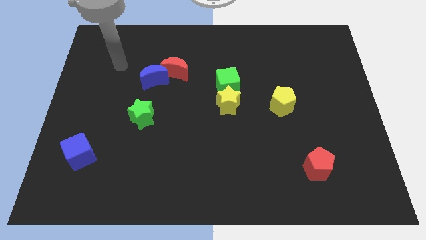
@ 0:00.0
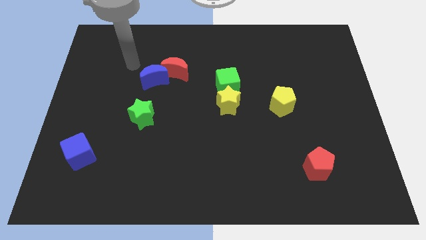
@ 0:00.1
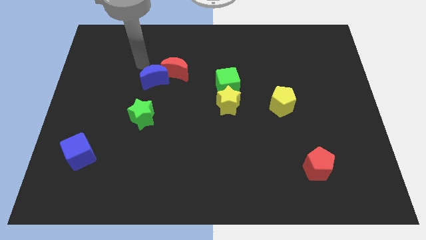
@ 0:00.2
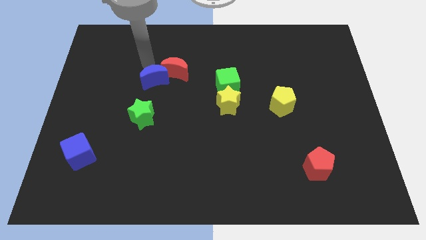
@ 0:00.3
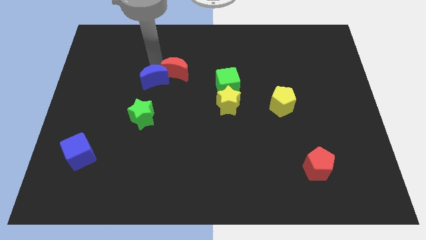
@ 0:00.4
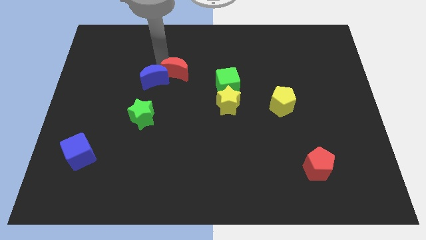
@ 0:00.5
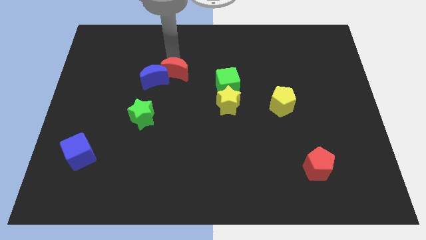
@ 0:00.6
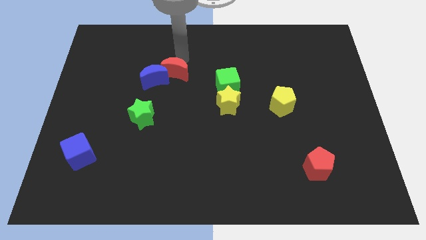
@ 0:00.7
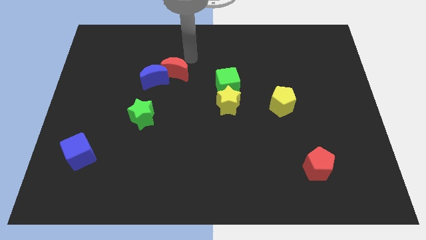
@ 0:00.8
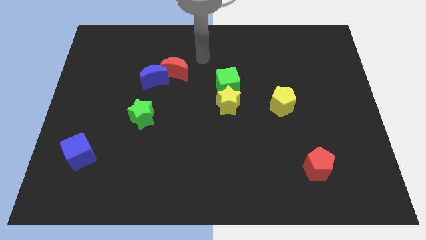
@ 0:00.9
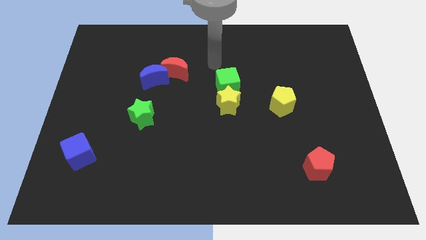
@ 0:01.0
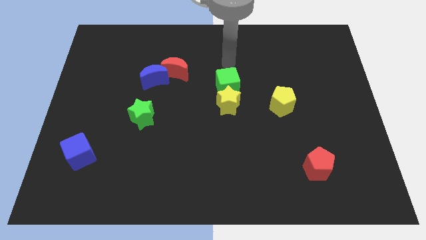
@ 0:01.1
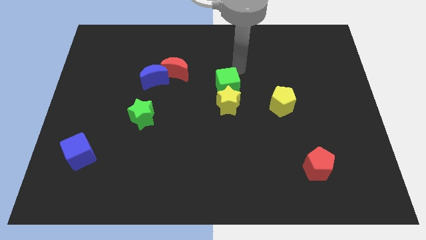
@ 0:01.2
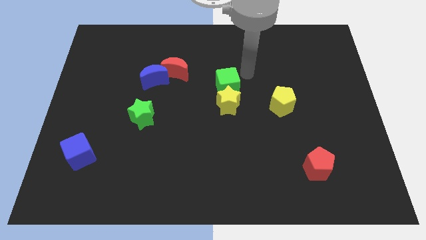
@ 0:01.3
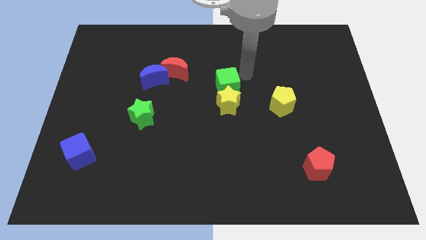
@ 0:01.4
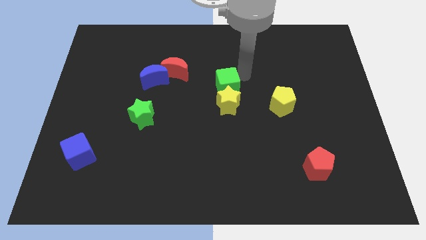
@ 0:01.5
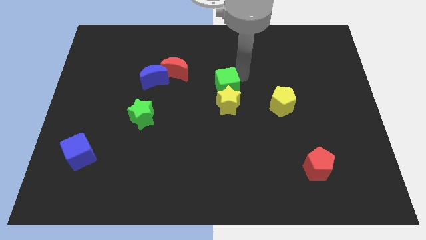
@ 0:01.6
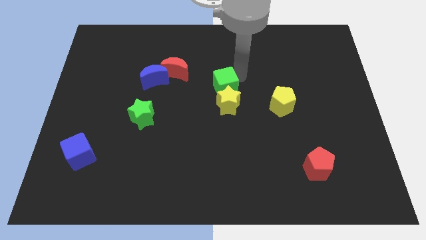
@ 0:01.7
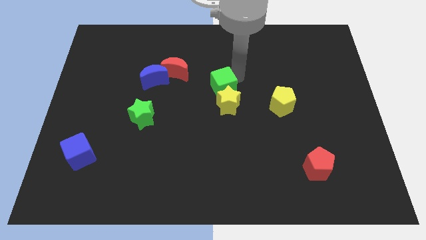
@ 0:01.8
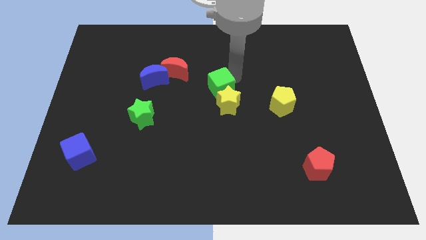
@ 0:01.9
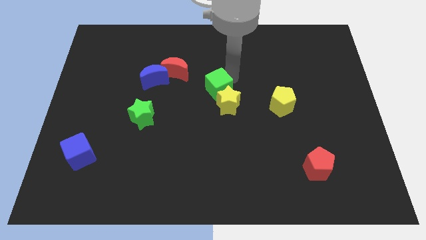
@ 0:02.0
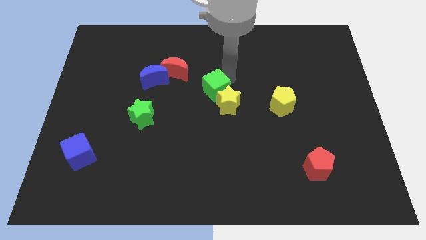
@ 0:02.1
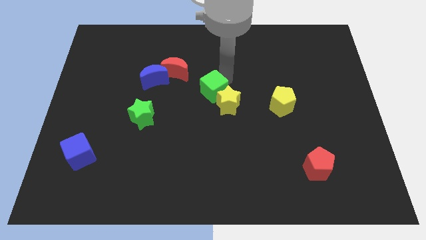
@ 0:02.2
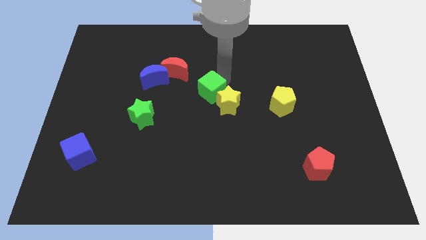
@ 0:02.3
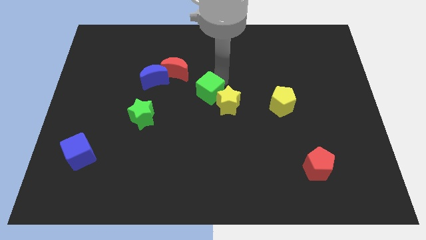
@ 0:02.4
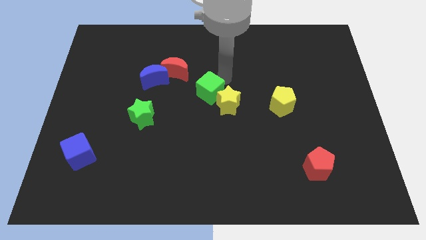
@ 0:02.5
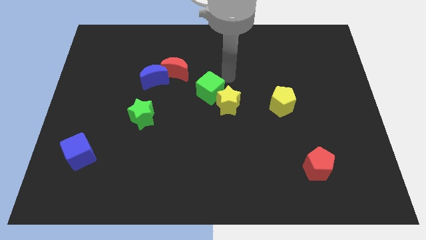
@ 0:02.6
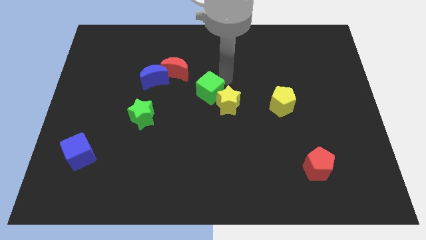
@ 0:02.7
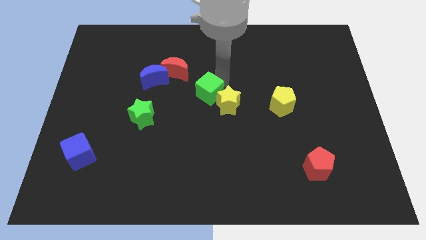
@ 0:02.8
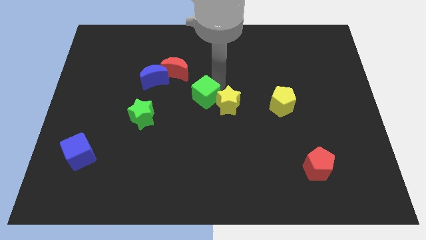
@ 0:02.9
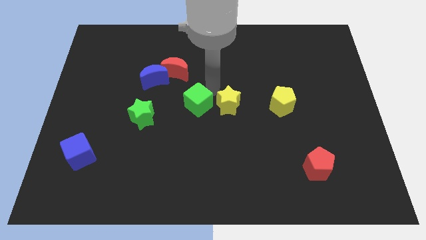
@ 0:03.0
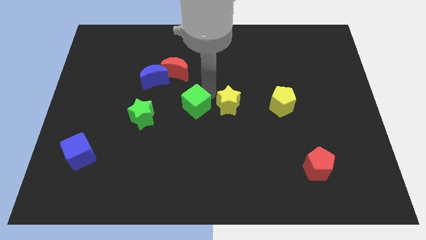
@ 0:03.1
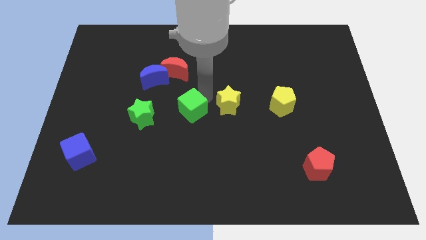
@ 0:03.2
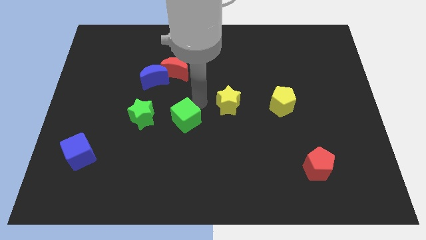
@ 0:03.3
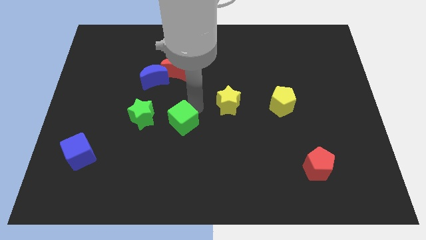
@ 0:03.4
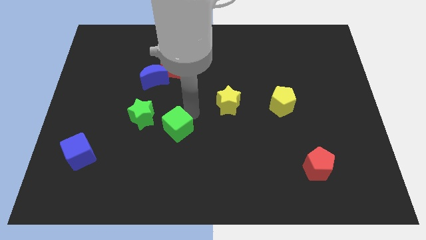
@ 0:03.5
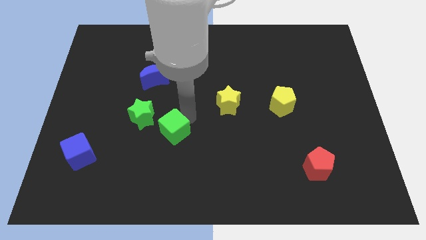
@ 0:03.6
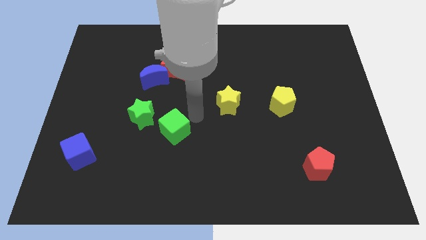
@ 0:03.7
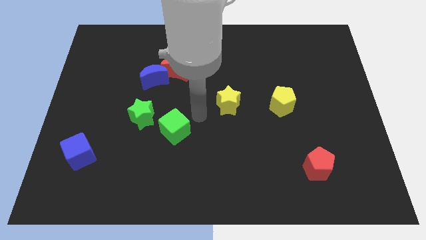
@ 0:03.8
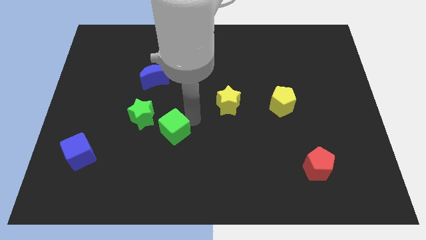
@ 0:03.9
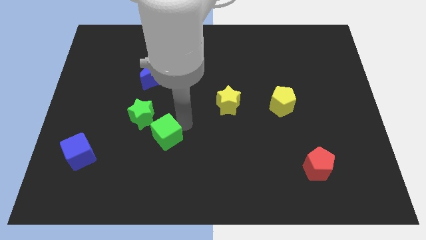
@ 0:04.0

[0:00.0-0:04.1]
push the green cube down and then left

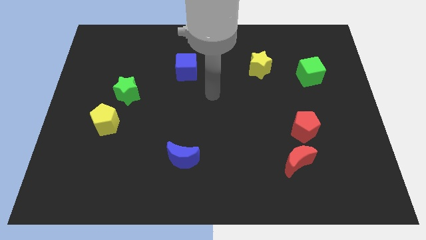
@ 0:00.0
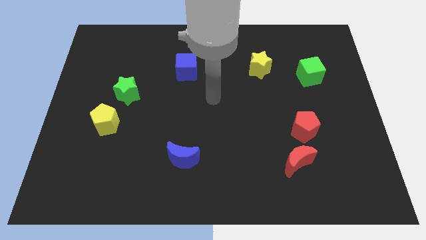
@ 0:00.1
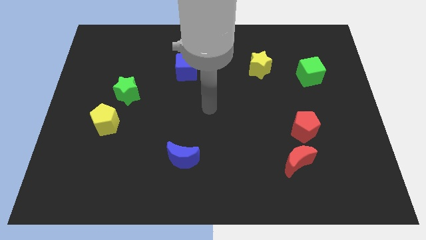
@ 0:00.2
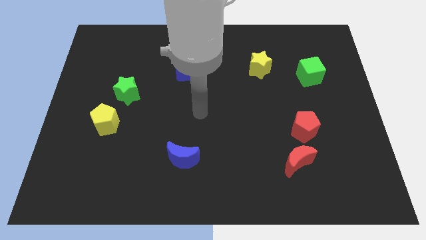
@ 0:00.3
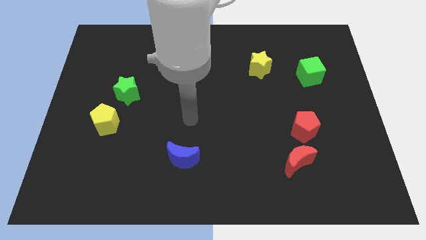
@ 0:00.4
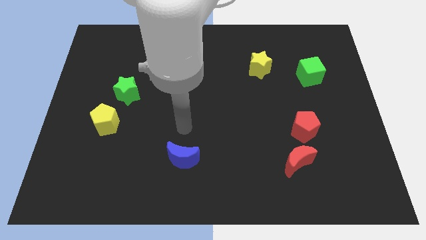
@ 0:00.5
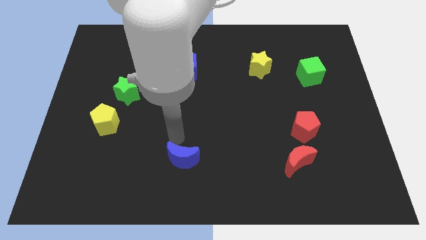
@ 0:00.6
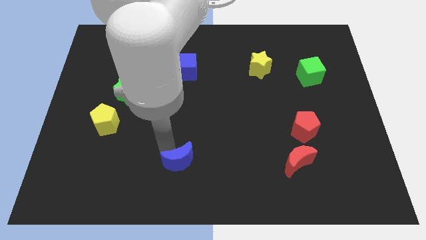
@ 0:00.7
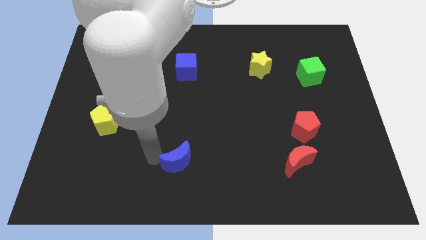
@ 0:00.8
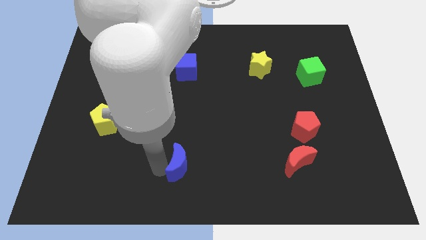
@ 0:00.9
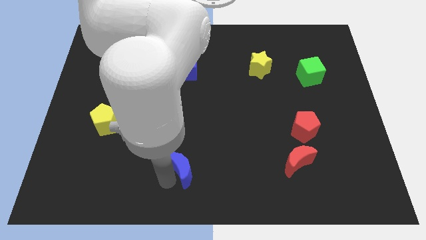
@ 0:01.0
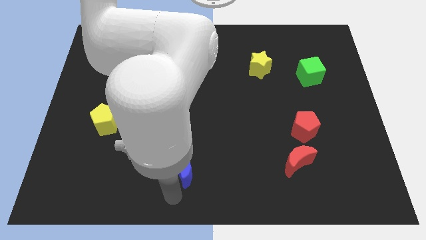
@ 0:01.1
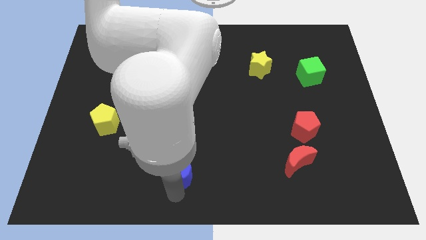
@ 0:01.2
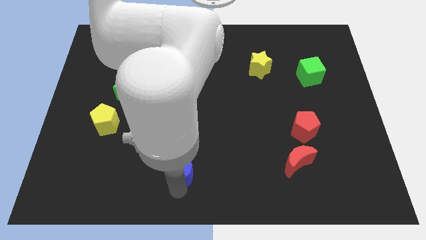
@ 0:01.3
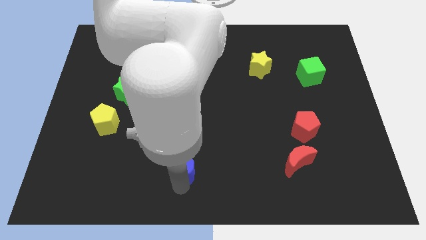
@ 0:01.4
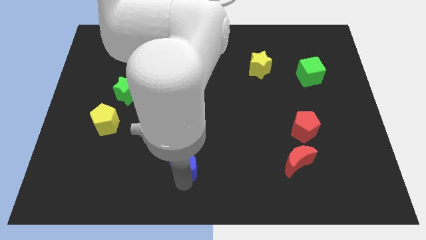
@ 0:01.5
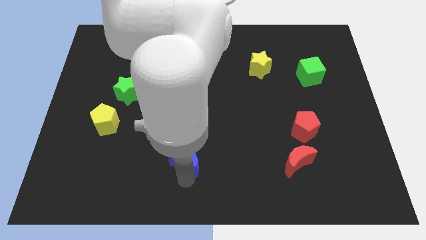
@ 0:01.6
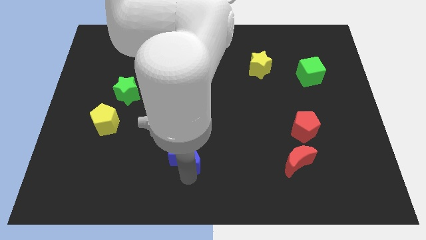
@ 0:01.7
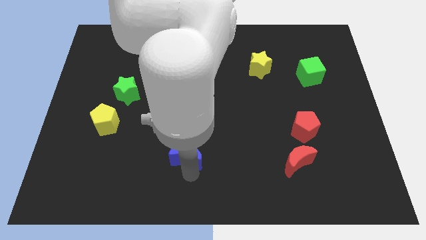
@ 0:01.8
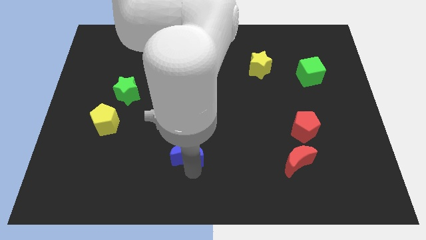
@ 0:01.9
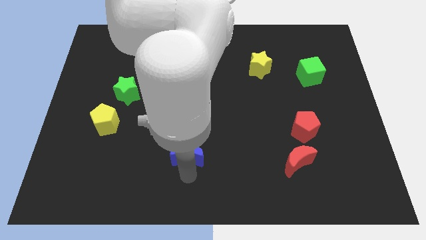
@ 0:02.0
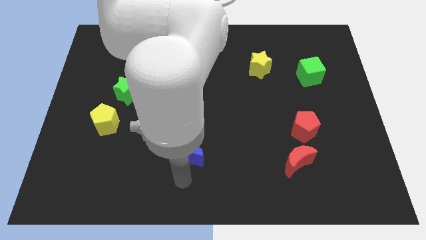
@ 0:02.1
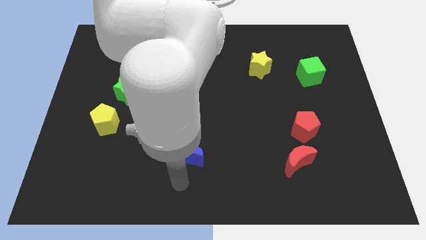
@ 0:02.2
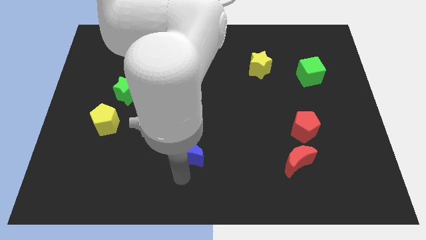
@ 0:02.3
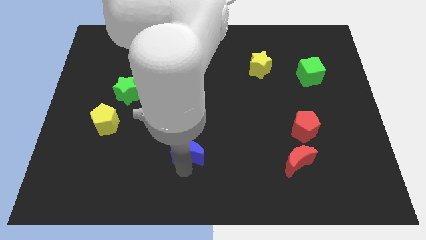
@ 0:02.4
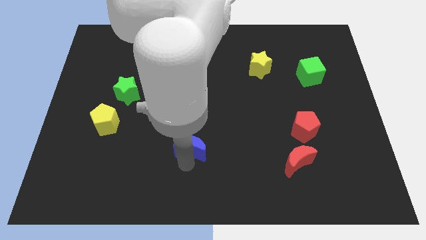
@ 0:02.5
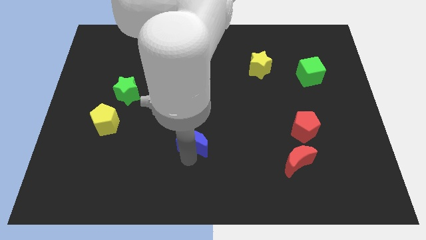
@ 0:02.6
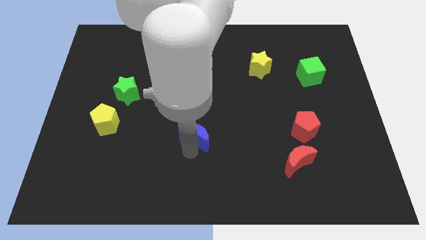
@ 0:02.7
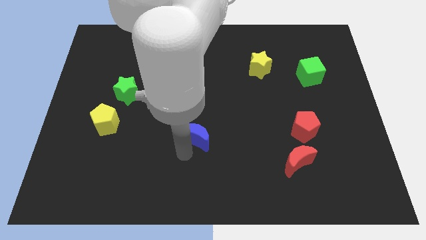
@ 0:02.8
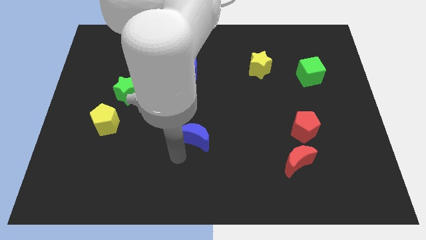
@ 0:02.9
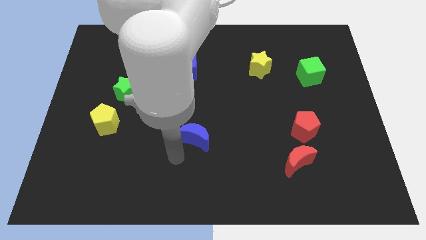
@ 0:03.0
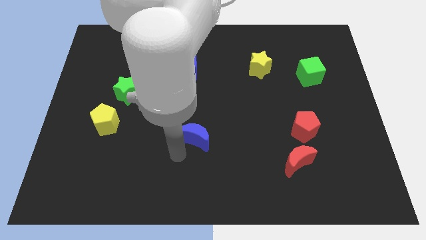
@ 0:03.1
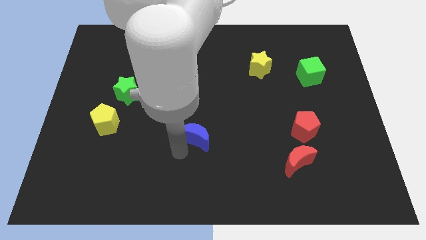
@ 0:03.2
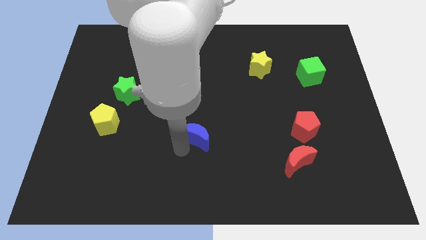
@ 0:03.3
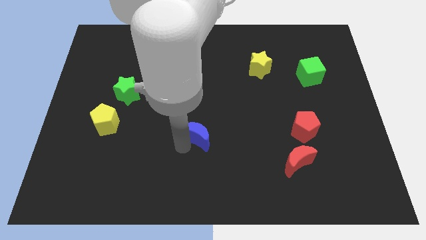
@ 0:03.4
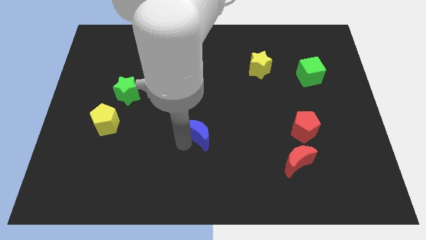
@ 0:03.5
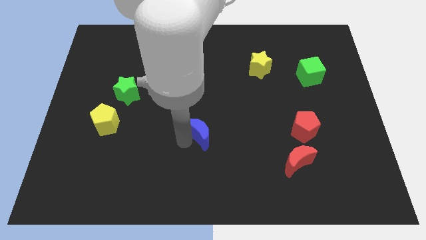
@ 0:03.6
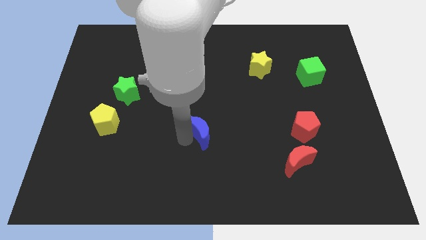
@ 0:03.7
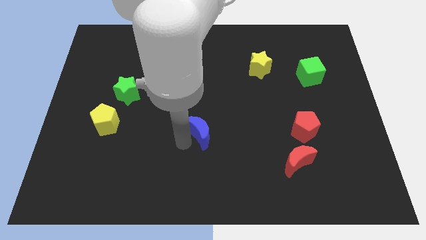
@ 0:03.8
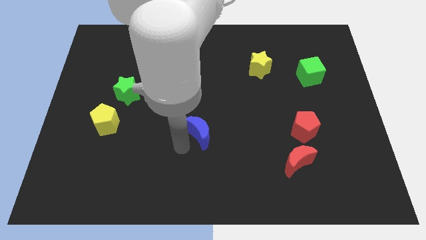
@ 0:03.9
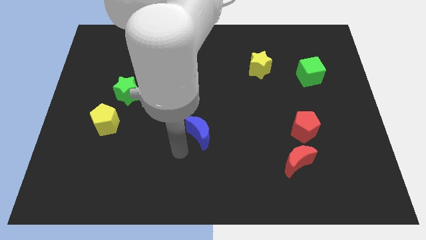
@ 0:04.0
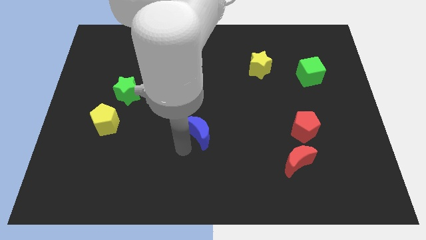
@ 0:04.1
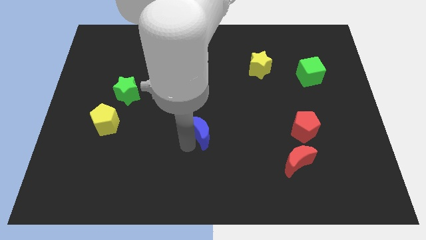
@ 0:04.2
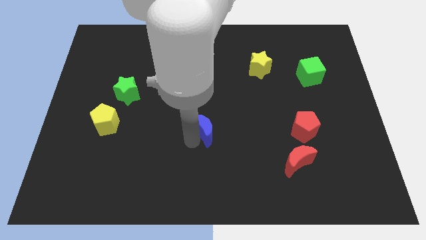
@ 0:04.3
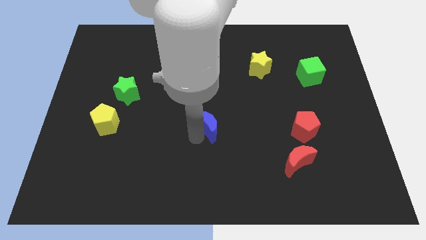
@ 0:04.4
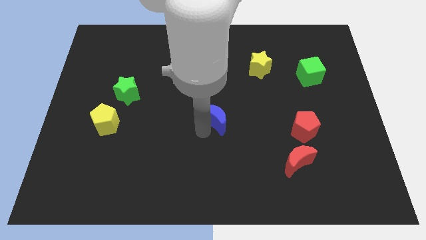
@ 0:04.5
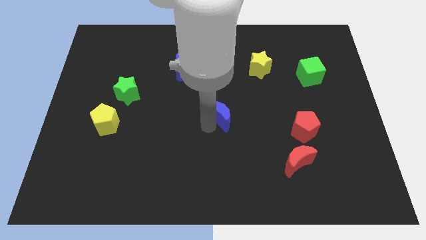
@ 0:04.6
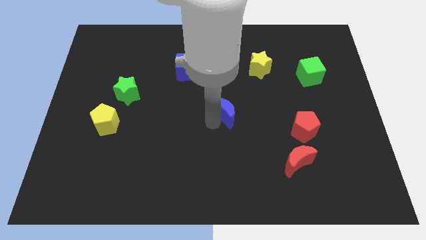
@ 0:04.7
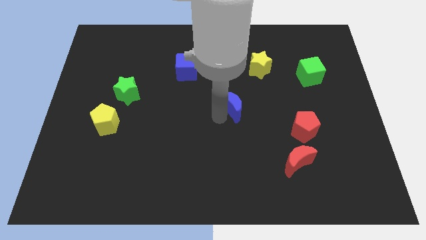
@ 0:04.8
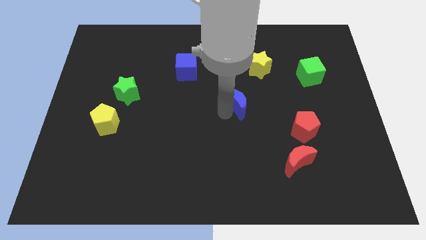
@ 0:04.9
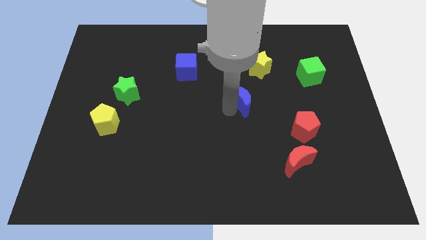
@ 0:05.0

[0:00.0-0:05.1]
move the blue moon diagonally upwards and to the right
